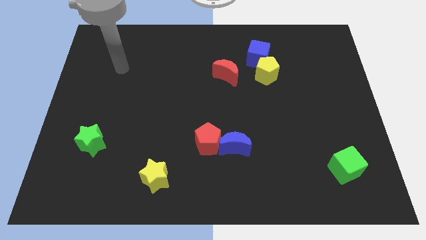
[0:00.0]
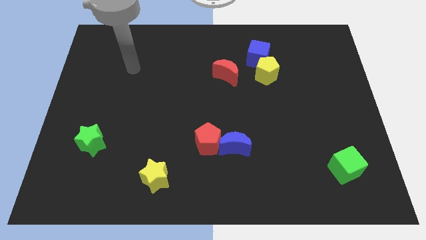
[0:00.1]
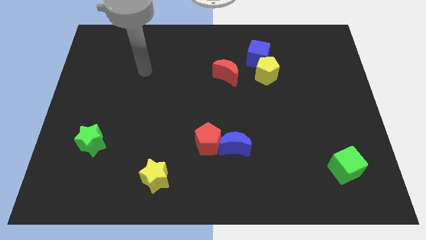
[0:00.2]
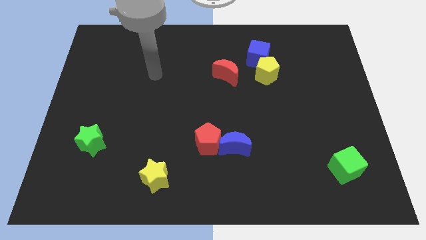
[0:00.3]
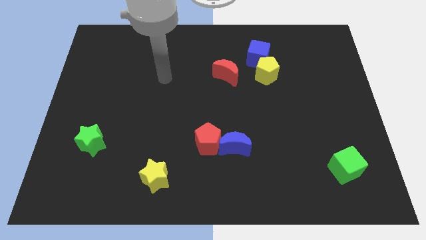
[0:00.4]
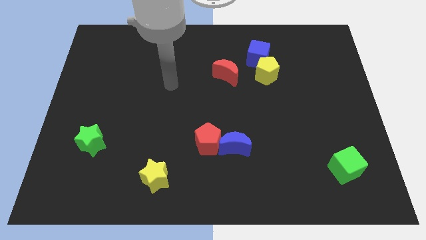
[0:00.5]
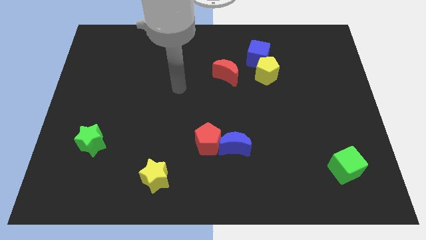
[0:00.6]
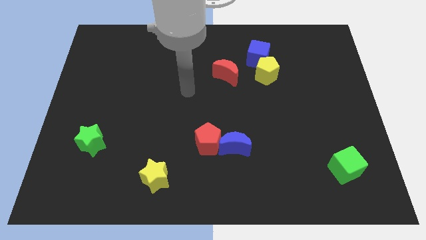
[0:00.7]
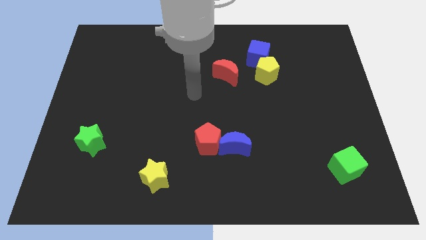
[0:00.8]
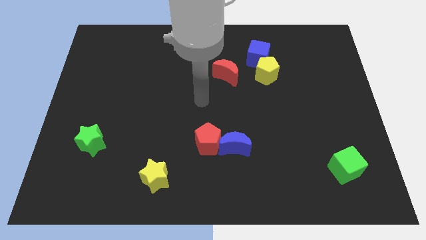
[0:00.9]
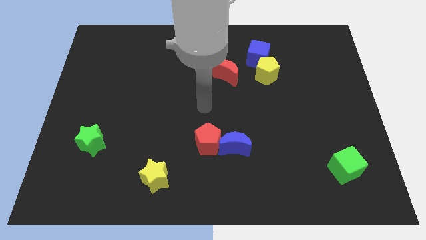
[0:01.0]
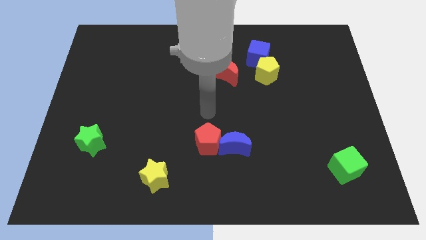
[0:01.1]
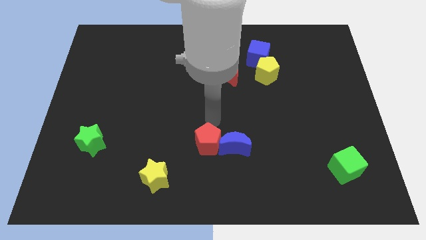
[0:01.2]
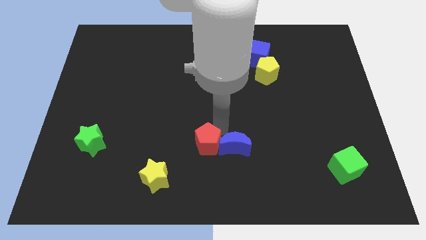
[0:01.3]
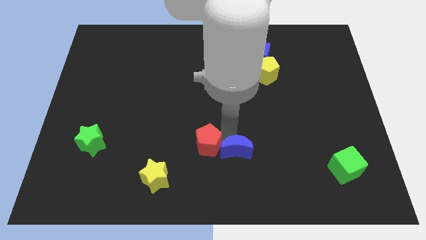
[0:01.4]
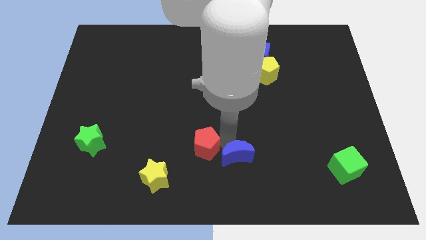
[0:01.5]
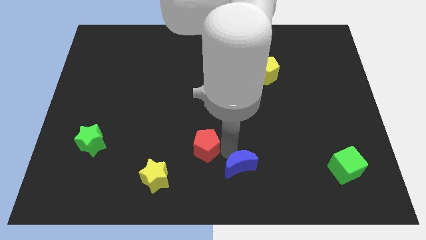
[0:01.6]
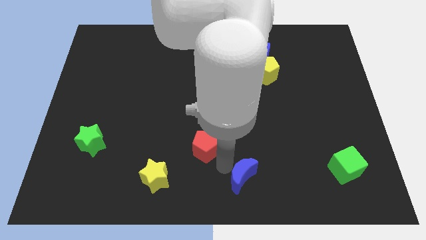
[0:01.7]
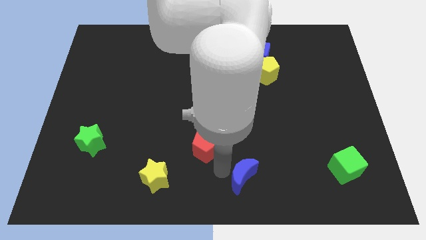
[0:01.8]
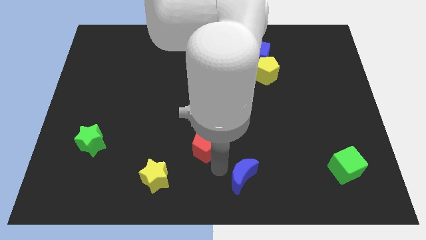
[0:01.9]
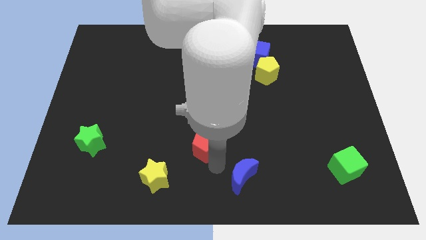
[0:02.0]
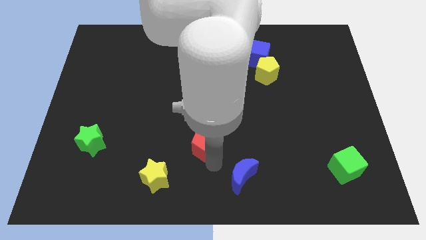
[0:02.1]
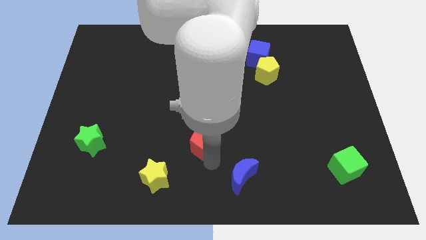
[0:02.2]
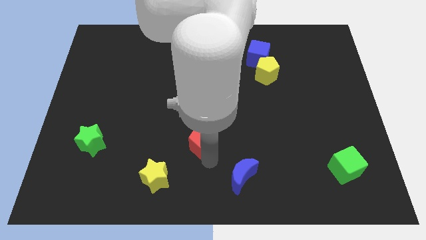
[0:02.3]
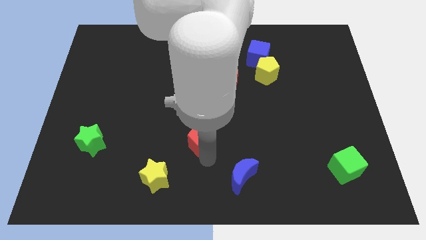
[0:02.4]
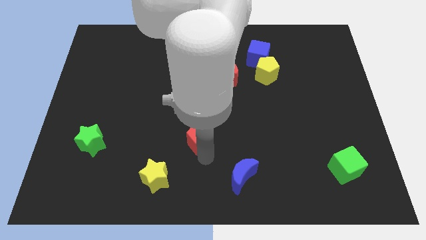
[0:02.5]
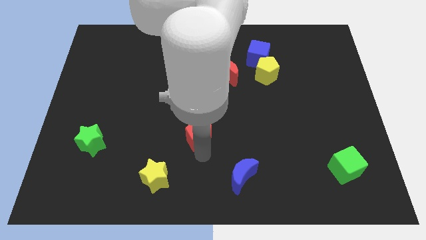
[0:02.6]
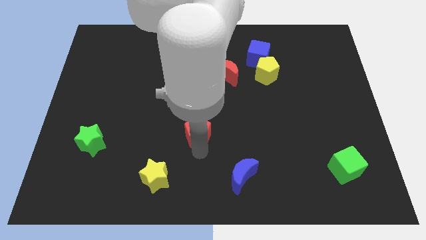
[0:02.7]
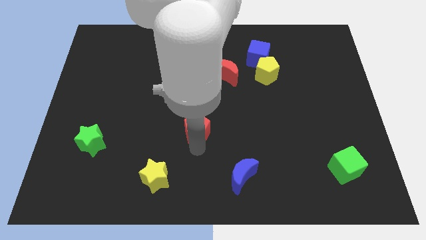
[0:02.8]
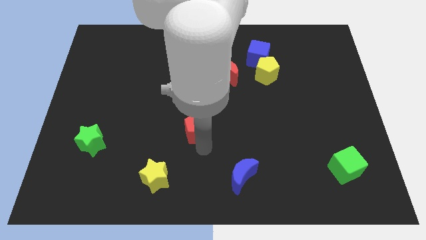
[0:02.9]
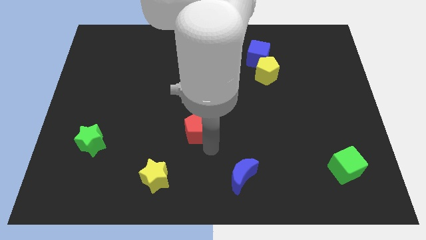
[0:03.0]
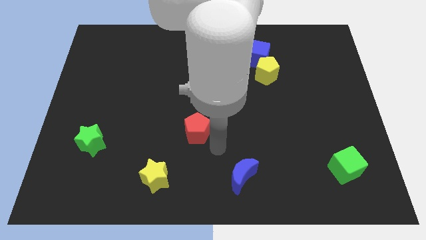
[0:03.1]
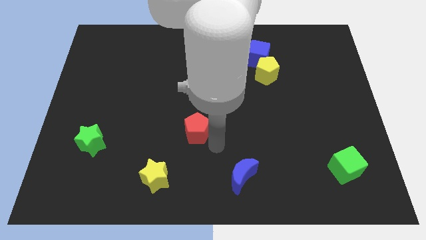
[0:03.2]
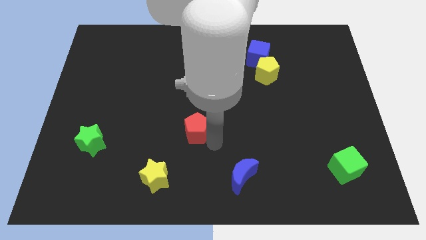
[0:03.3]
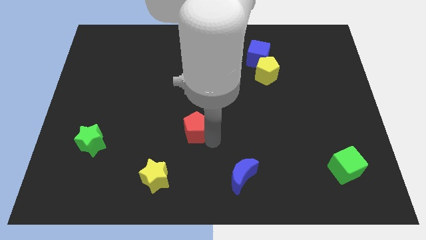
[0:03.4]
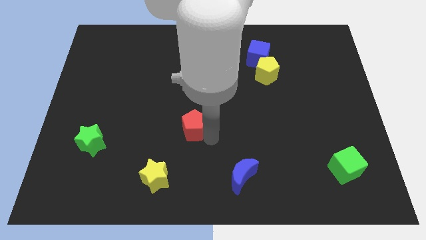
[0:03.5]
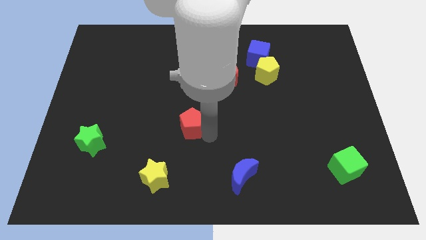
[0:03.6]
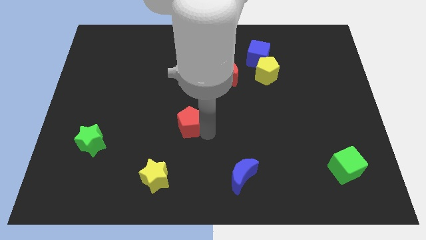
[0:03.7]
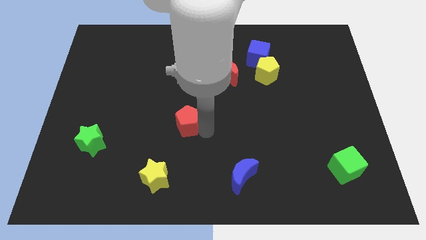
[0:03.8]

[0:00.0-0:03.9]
slightly slide the red pentagon upwards and then left
